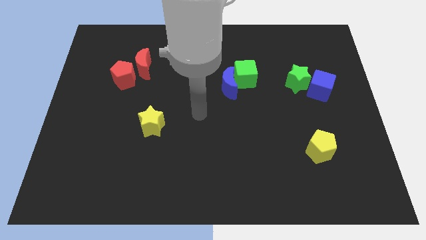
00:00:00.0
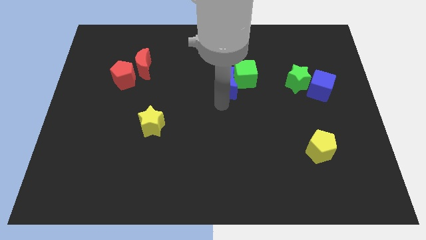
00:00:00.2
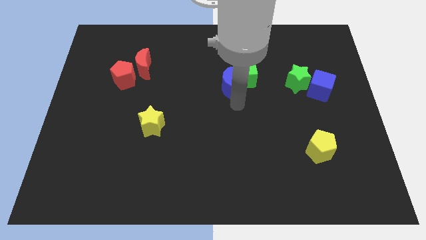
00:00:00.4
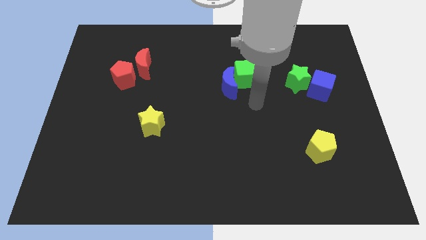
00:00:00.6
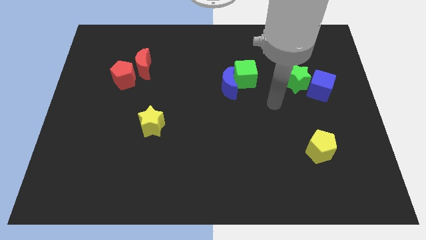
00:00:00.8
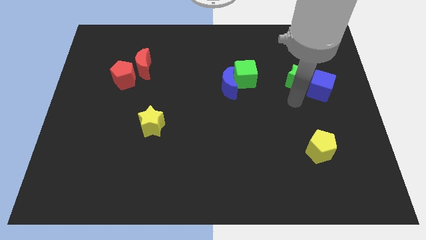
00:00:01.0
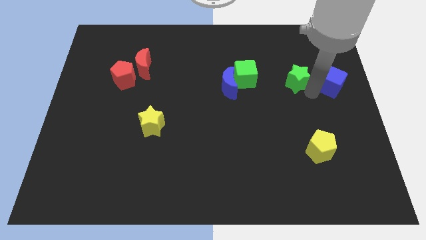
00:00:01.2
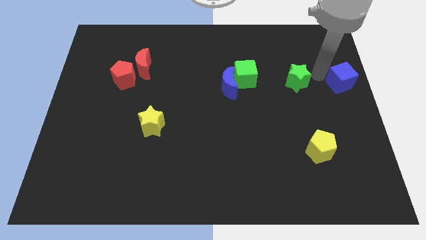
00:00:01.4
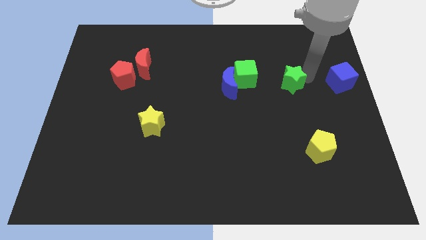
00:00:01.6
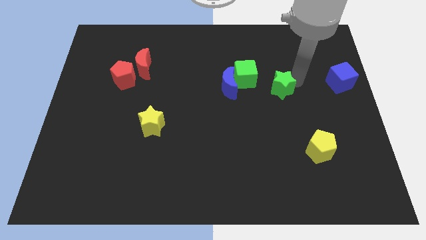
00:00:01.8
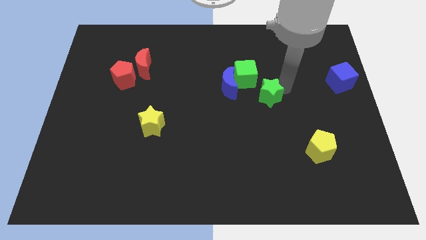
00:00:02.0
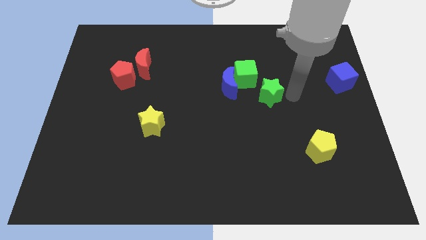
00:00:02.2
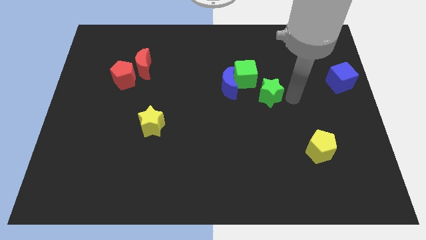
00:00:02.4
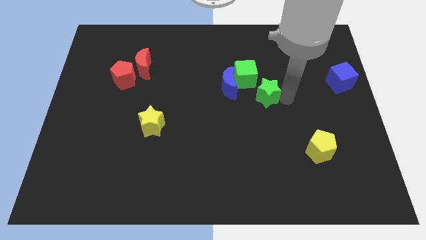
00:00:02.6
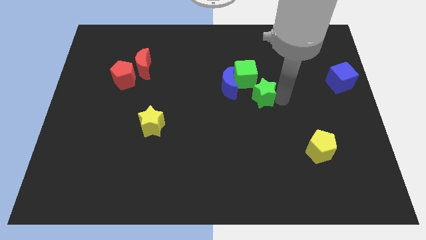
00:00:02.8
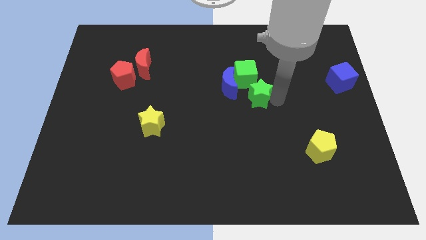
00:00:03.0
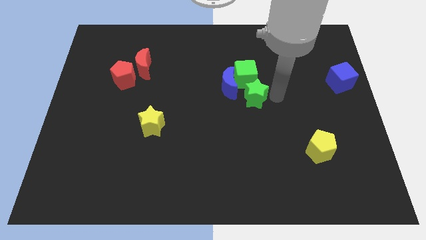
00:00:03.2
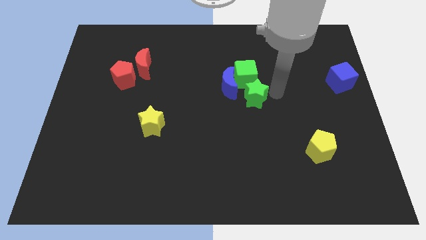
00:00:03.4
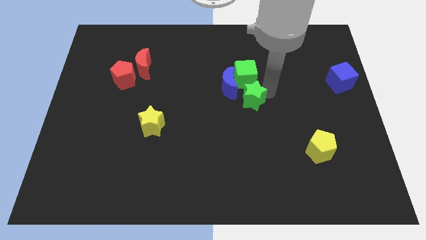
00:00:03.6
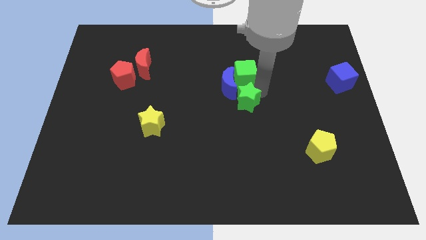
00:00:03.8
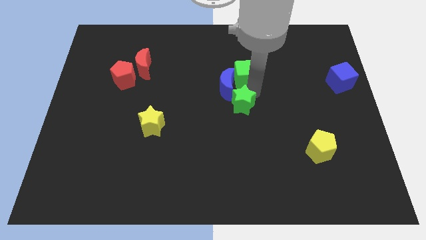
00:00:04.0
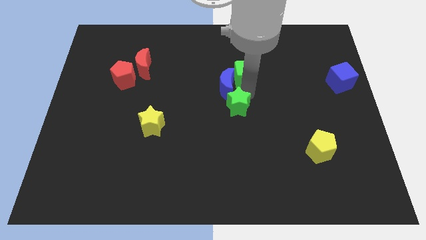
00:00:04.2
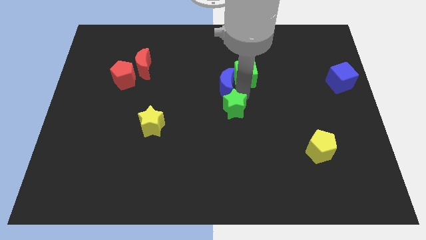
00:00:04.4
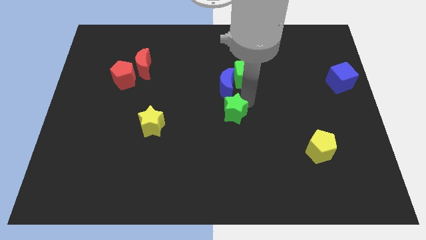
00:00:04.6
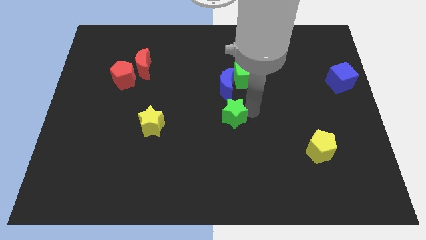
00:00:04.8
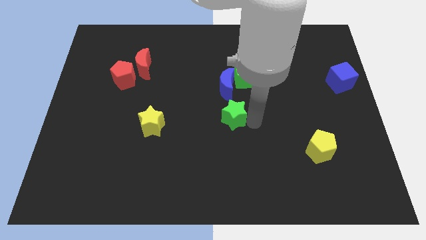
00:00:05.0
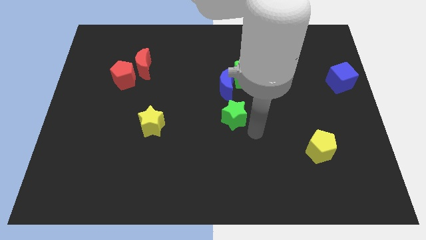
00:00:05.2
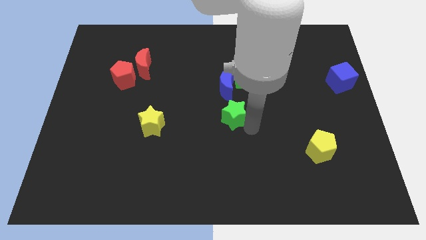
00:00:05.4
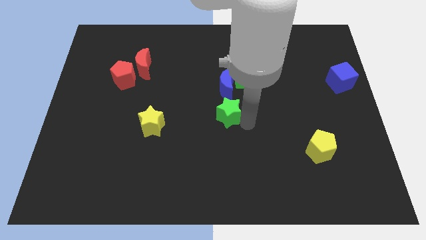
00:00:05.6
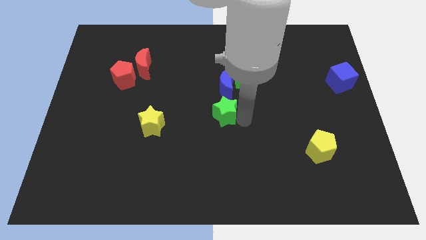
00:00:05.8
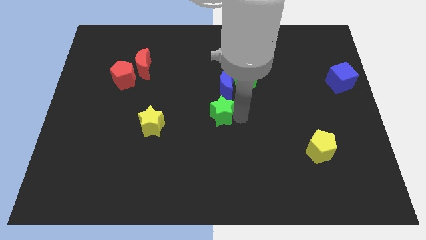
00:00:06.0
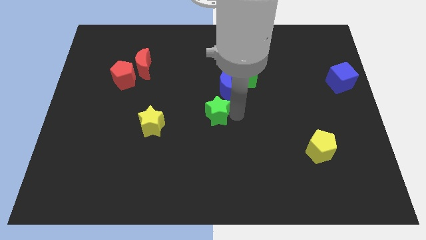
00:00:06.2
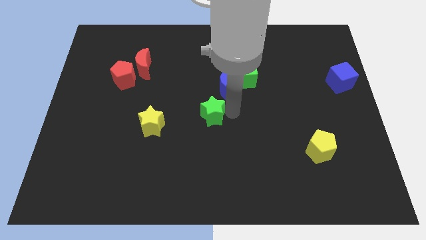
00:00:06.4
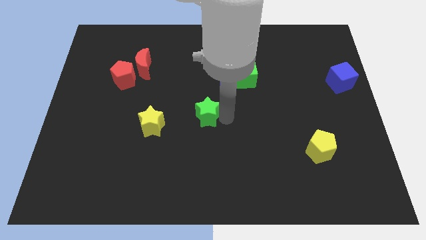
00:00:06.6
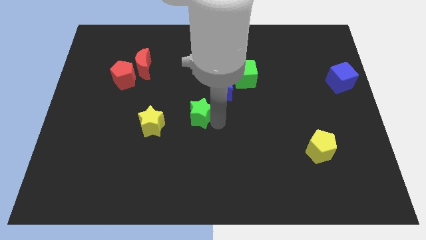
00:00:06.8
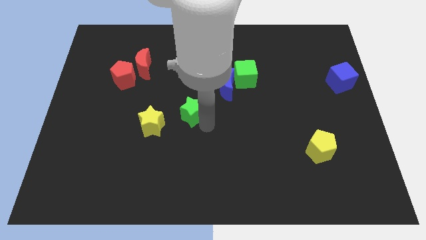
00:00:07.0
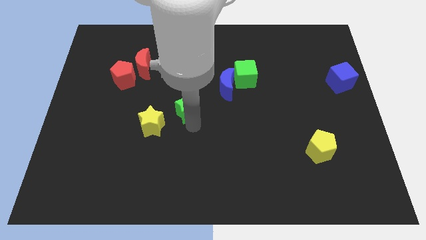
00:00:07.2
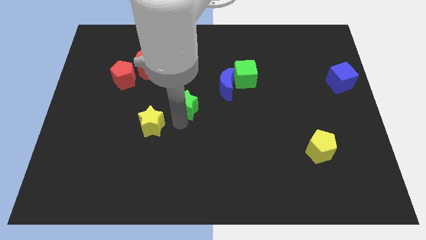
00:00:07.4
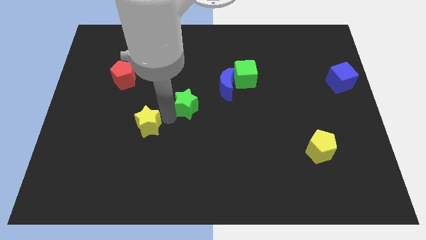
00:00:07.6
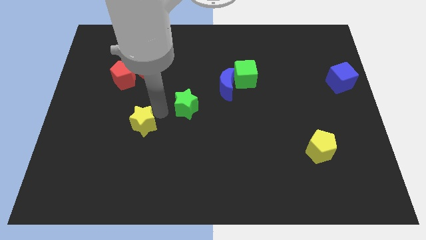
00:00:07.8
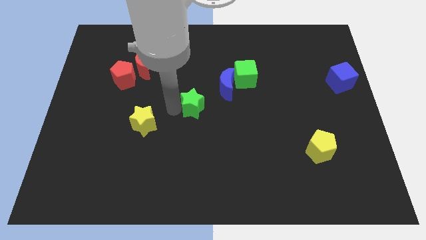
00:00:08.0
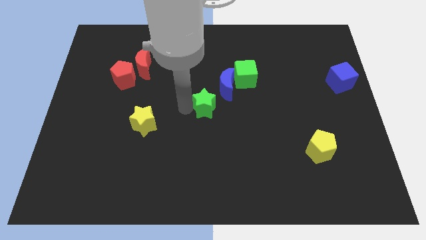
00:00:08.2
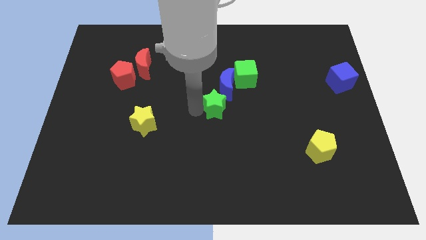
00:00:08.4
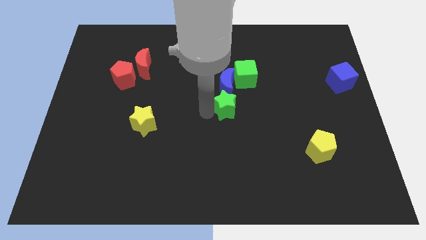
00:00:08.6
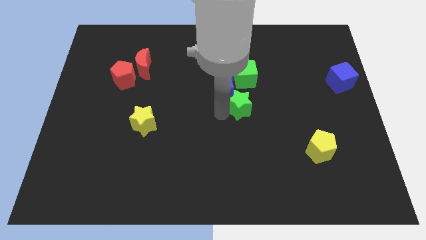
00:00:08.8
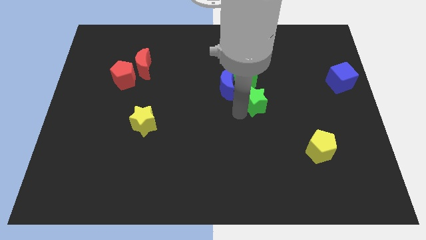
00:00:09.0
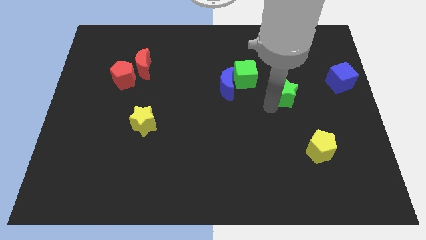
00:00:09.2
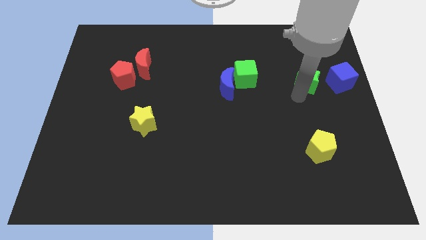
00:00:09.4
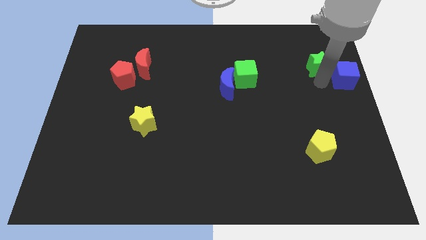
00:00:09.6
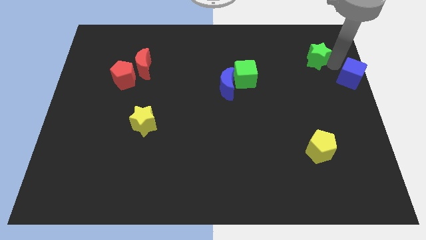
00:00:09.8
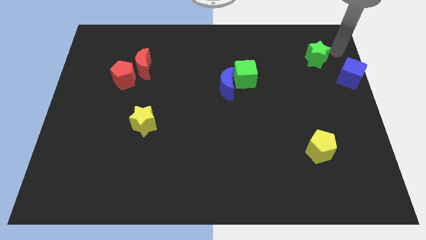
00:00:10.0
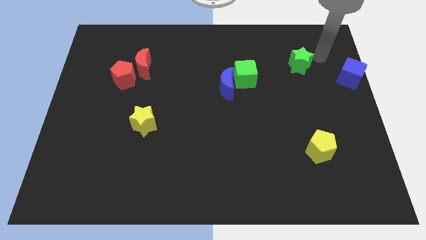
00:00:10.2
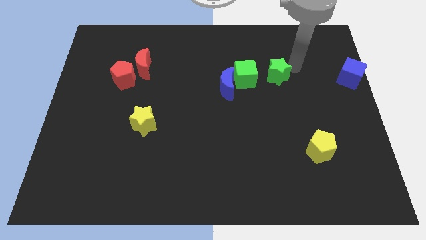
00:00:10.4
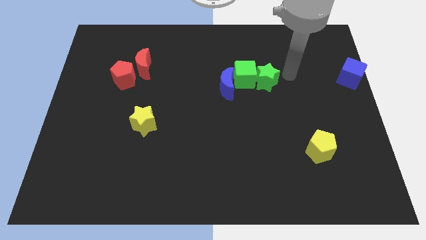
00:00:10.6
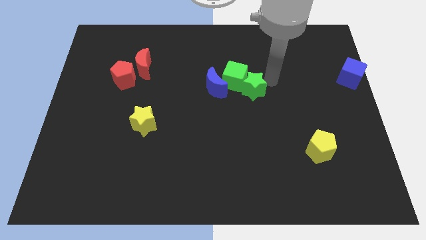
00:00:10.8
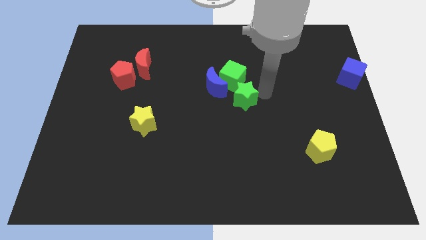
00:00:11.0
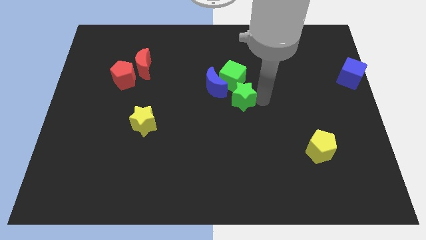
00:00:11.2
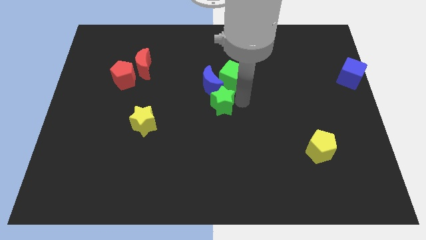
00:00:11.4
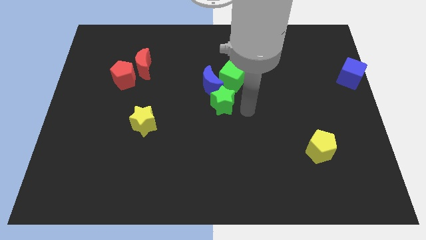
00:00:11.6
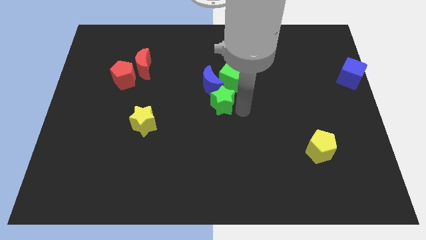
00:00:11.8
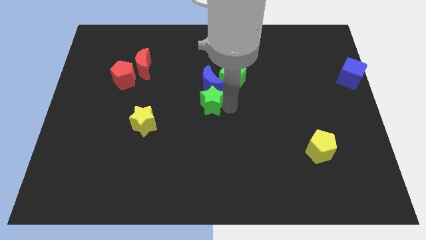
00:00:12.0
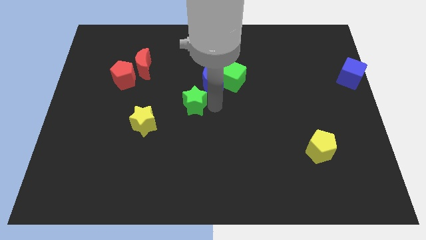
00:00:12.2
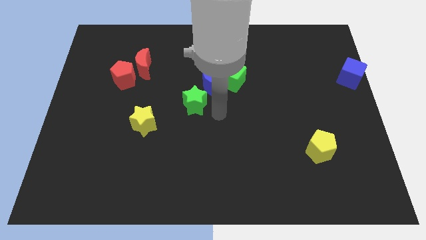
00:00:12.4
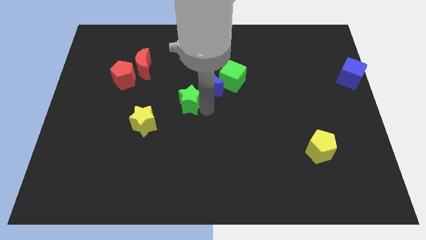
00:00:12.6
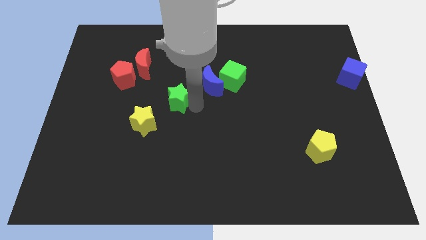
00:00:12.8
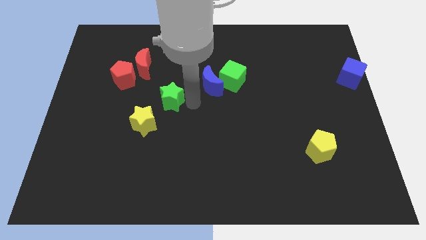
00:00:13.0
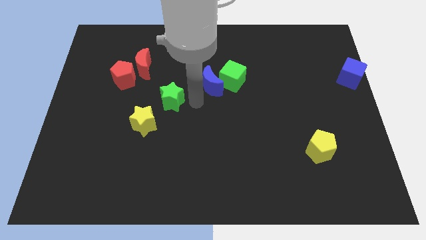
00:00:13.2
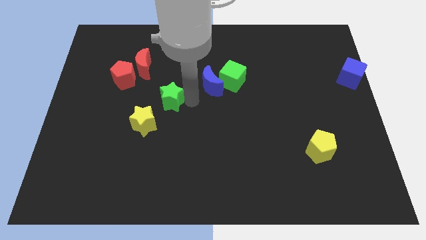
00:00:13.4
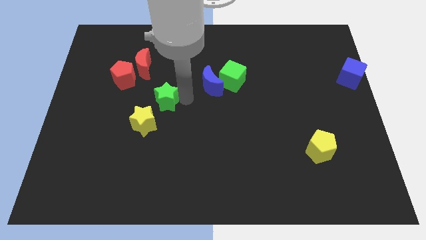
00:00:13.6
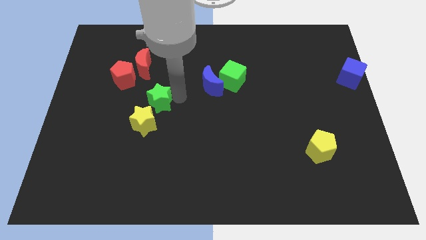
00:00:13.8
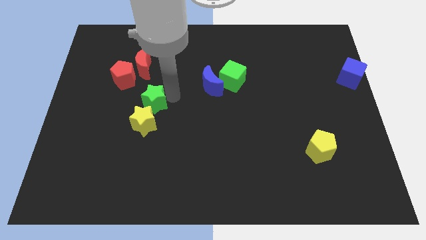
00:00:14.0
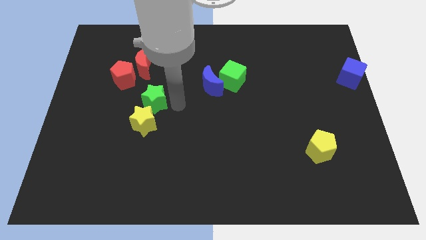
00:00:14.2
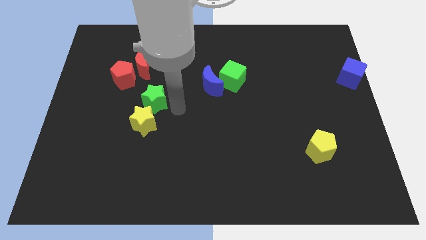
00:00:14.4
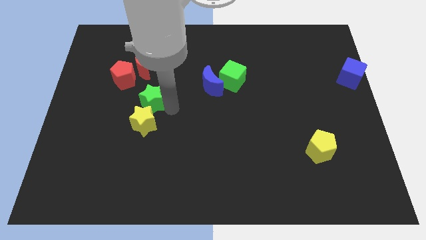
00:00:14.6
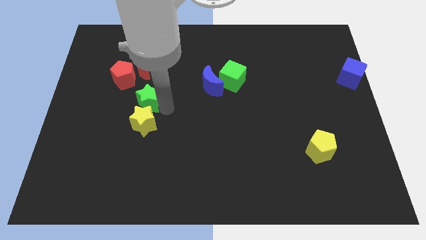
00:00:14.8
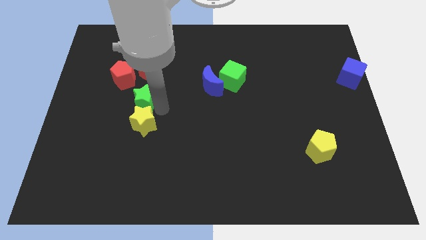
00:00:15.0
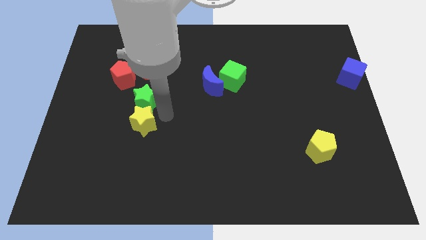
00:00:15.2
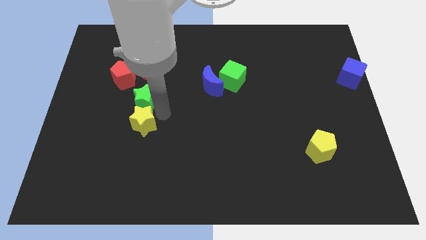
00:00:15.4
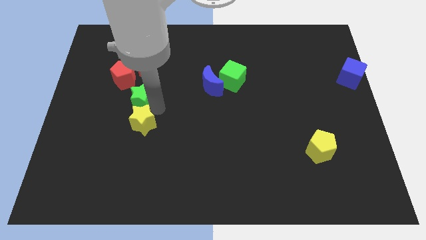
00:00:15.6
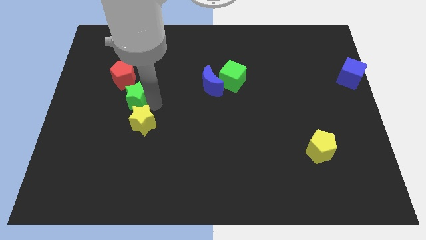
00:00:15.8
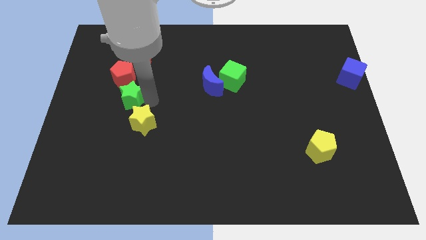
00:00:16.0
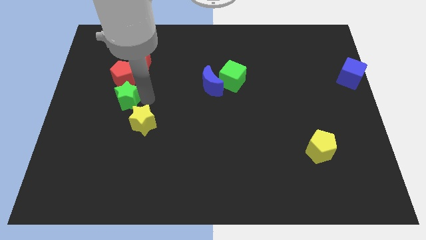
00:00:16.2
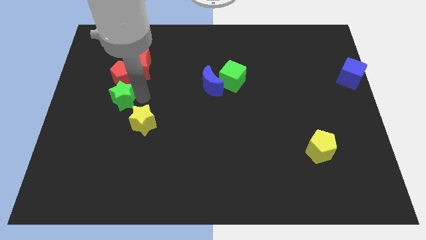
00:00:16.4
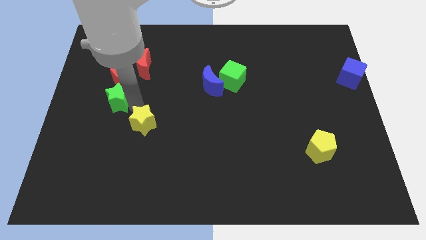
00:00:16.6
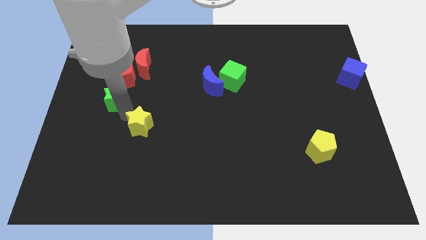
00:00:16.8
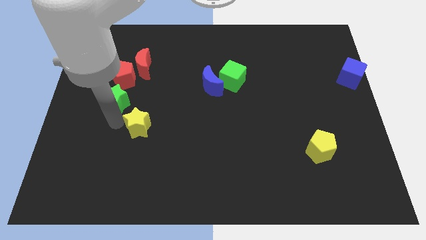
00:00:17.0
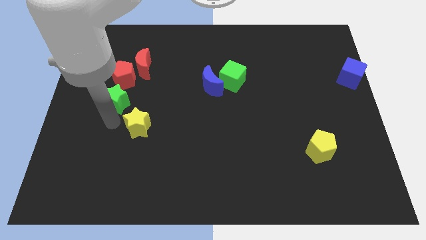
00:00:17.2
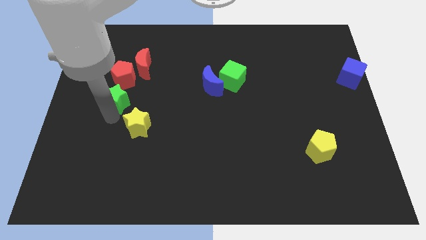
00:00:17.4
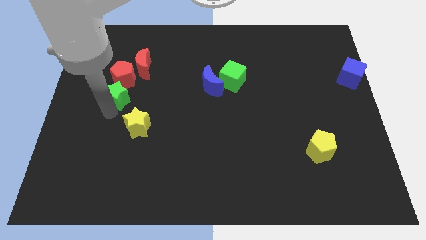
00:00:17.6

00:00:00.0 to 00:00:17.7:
push the green star diagonally down and to the left of the red moon
